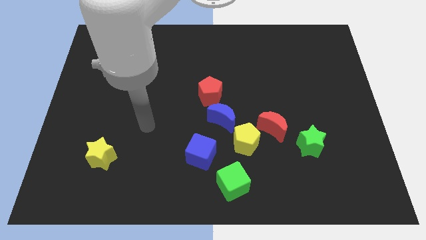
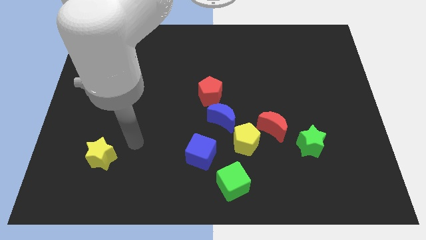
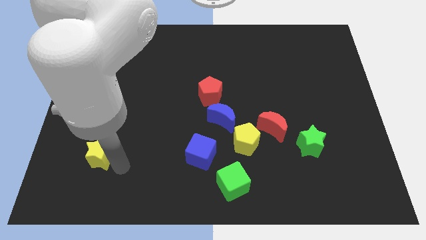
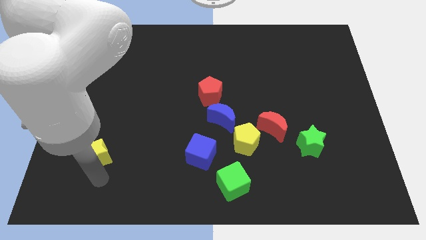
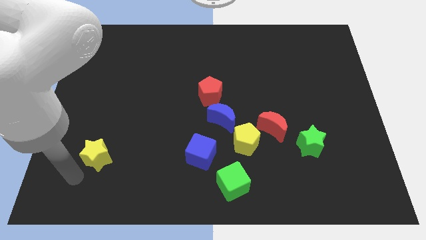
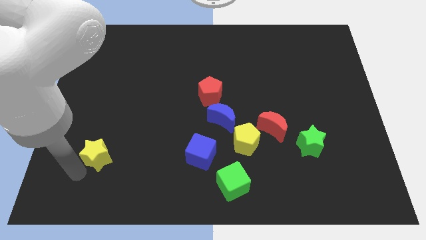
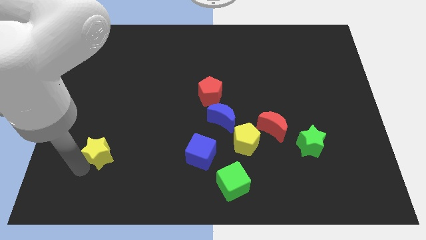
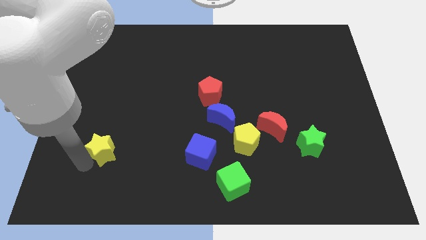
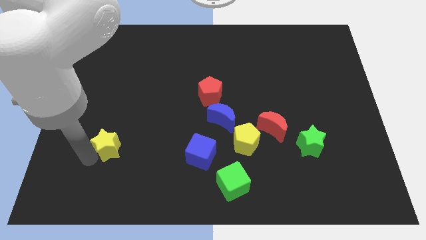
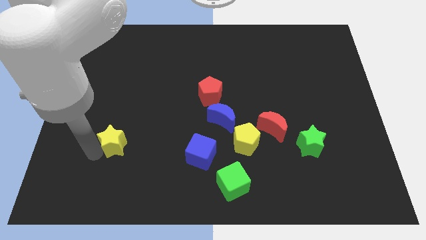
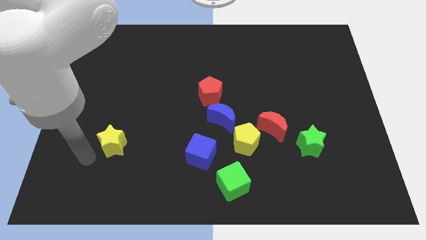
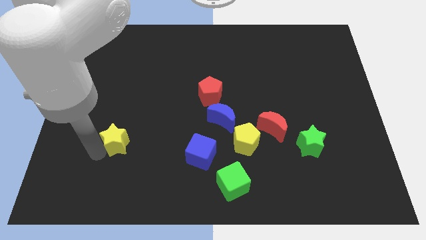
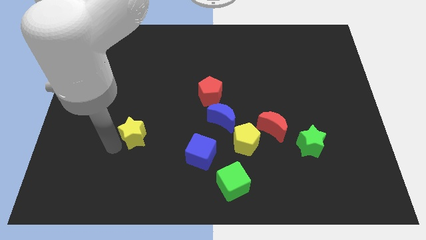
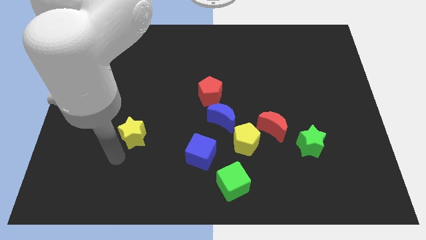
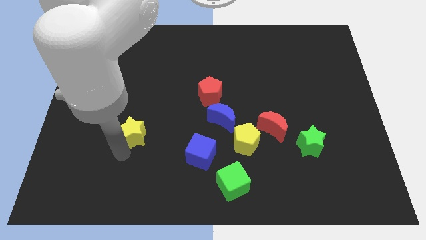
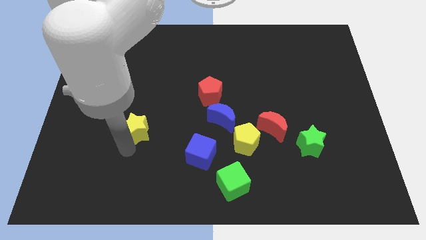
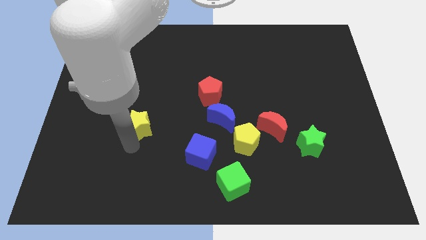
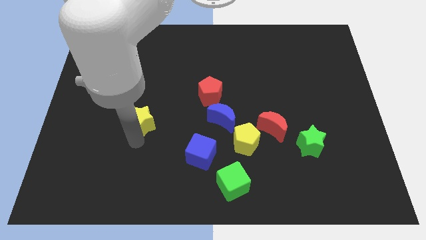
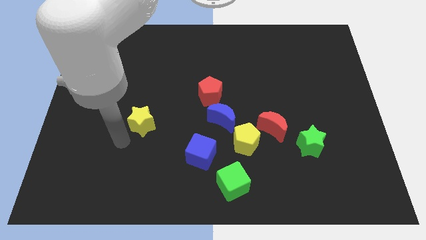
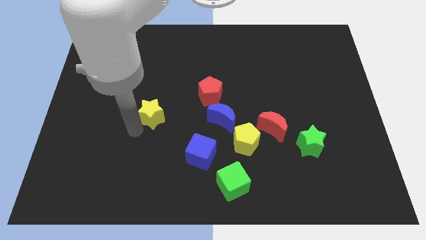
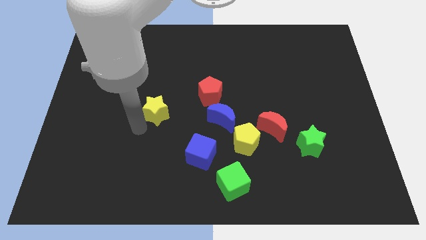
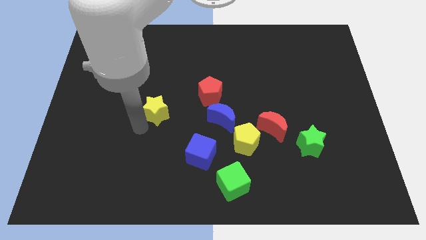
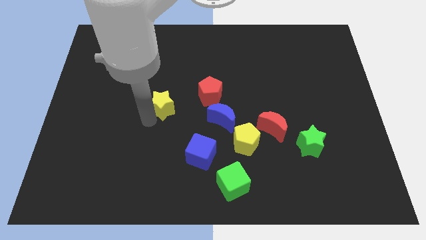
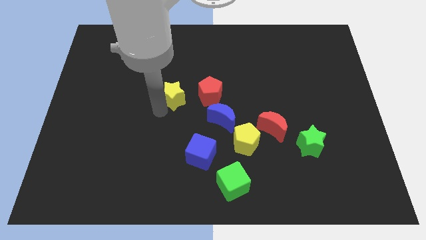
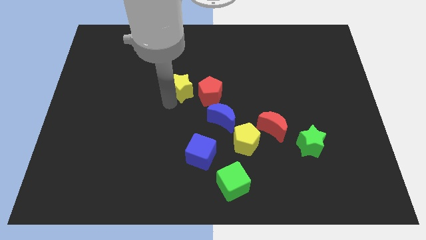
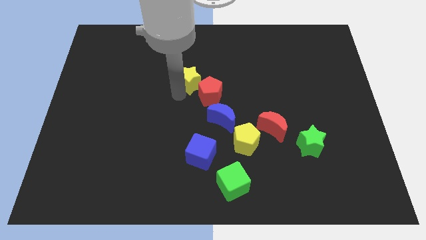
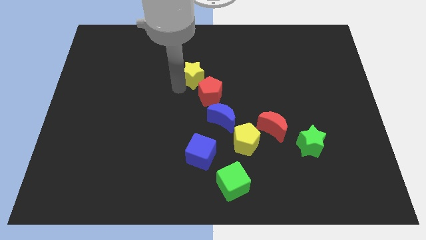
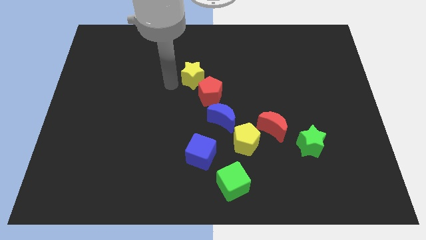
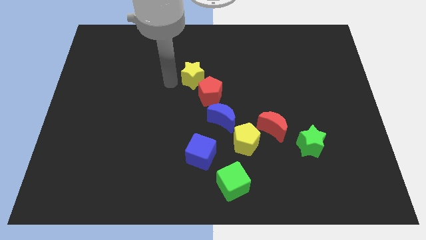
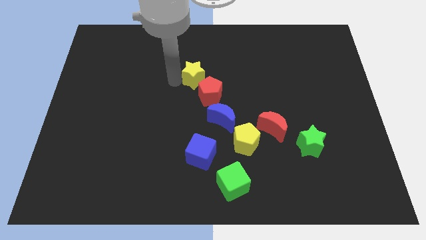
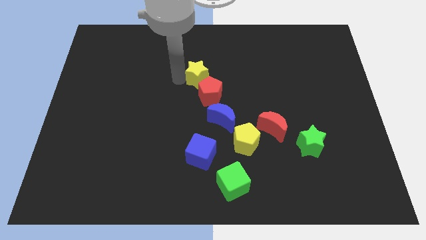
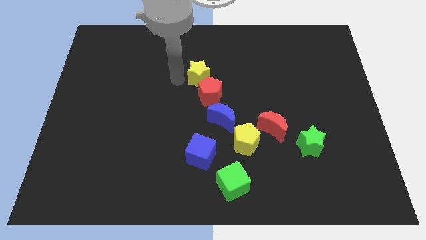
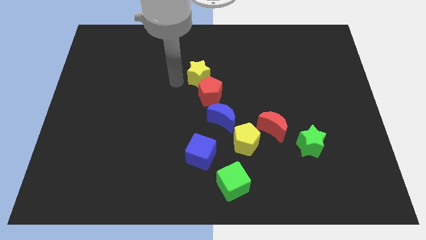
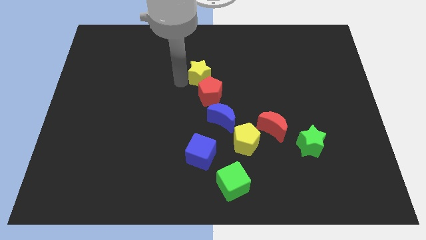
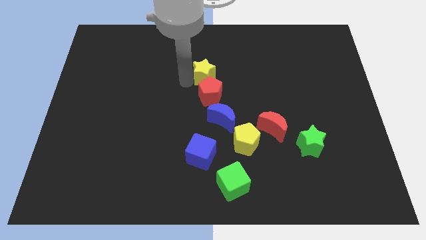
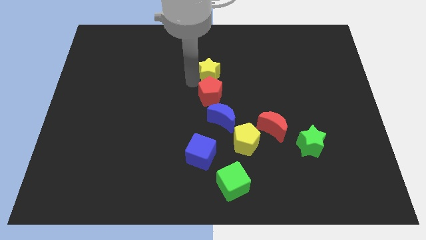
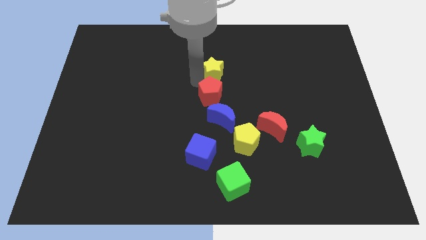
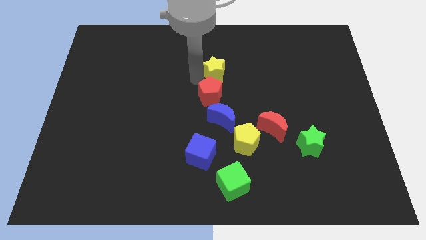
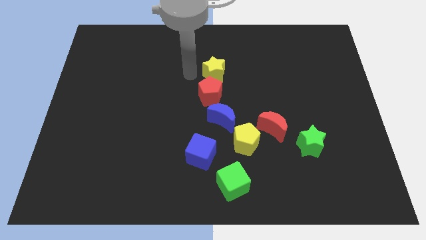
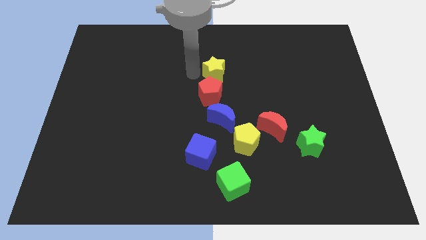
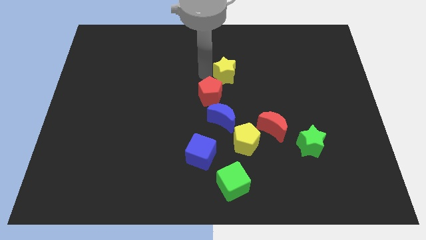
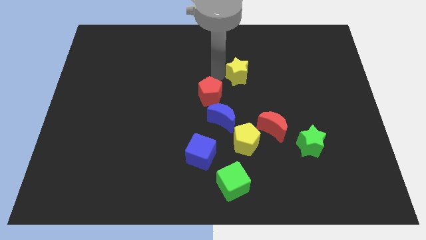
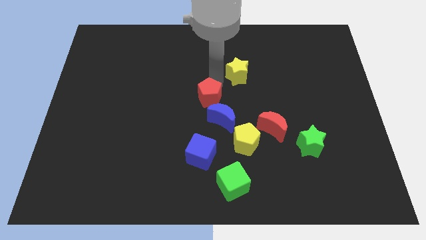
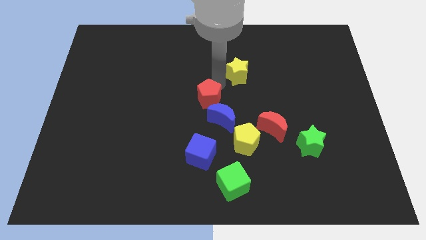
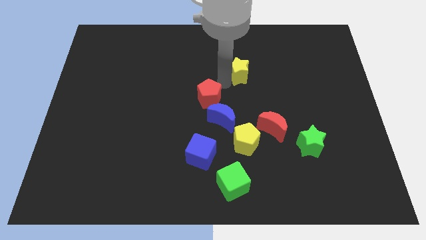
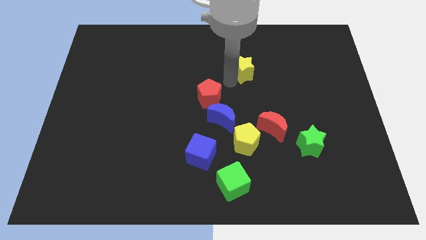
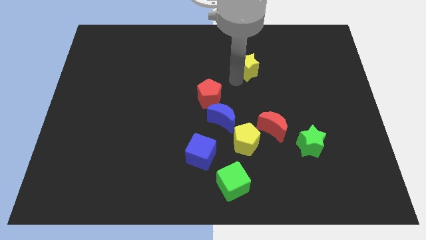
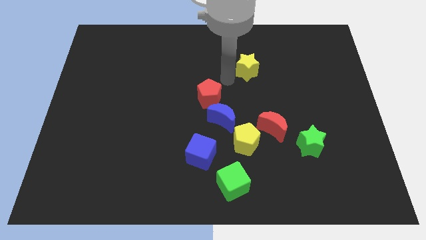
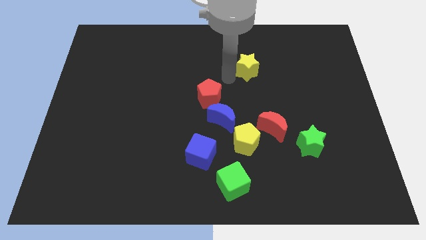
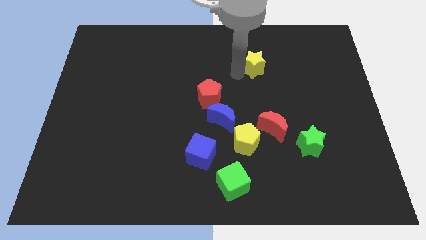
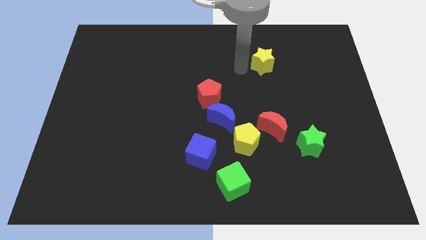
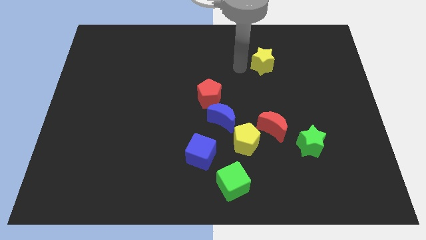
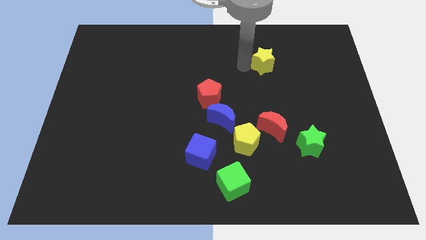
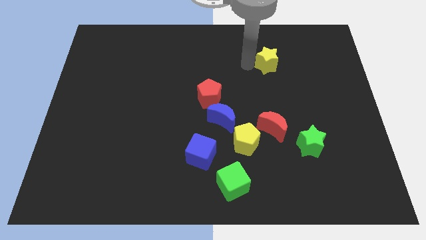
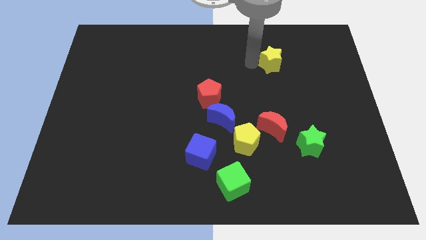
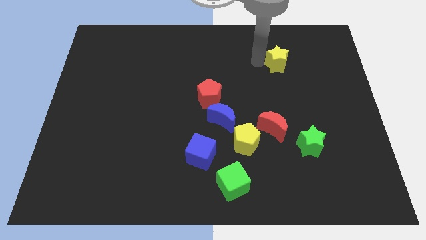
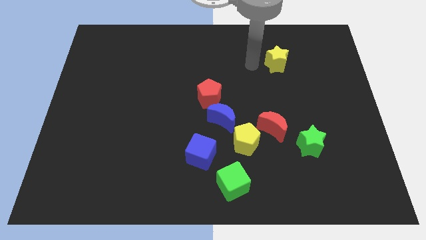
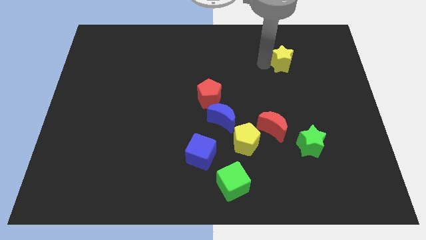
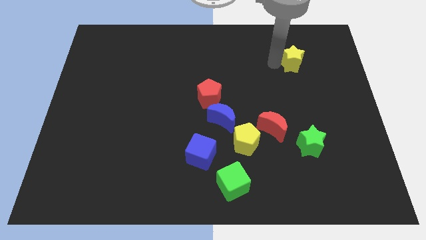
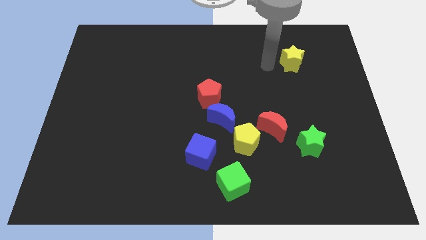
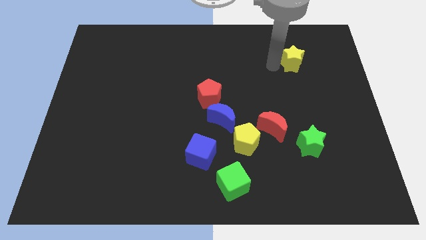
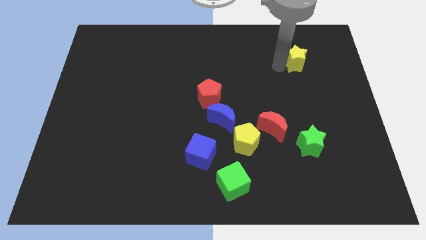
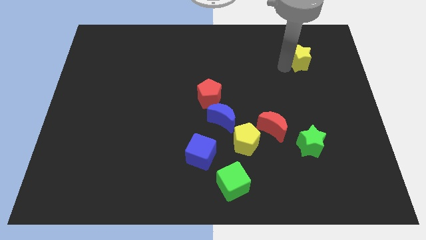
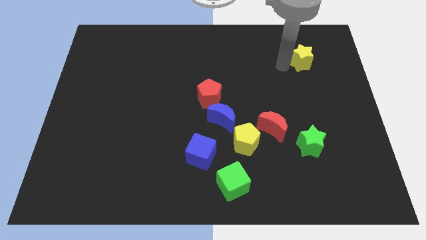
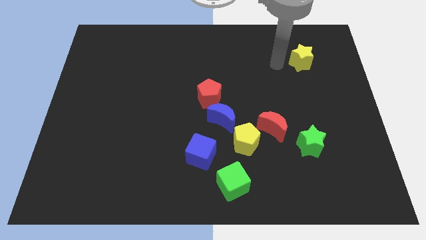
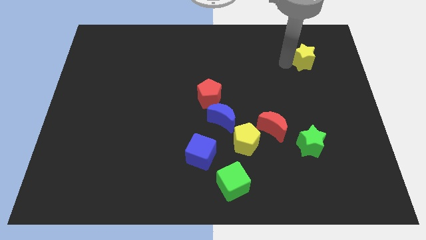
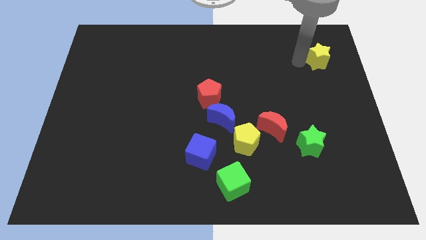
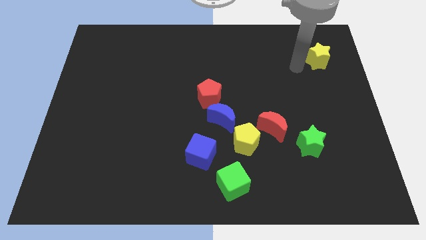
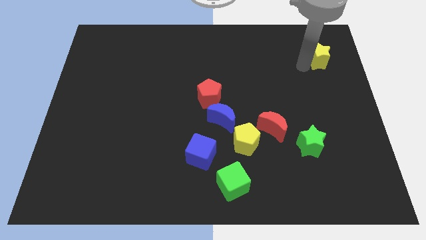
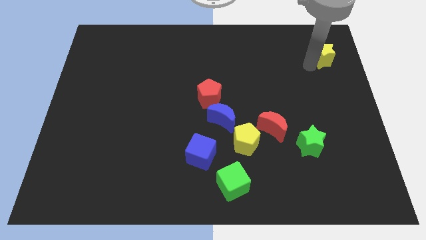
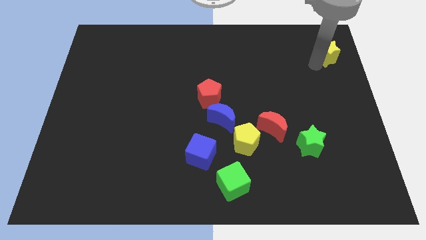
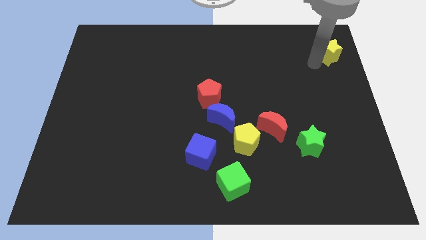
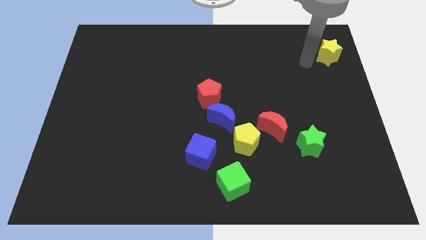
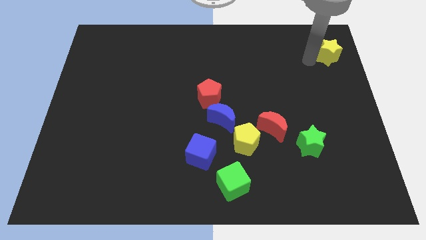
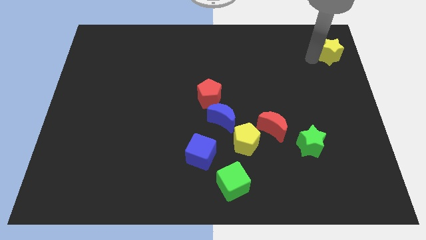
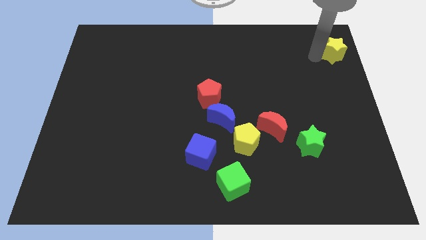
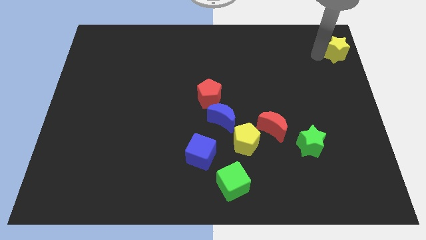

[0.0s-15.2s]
put the yellow star to the top right

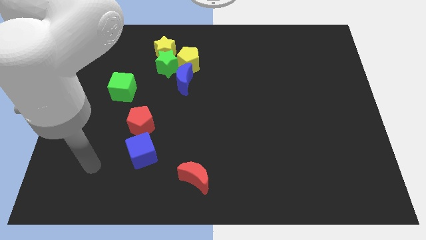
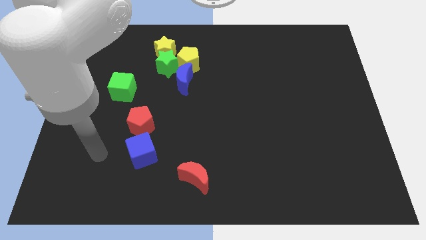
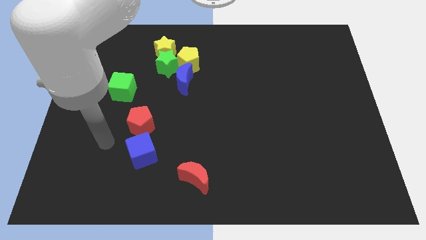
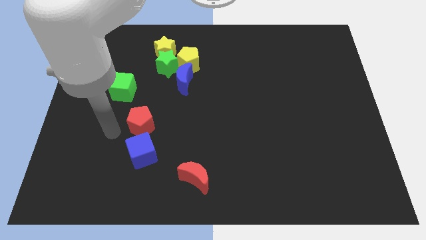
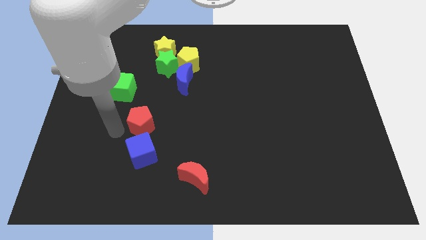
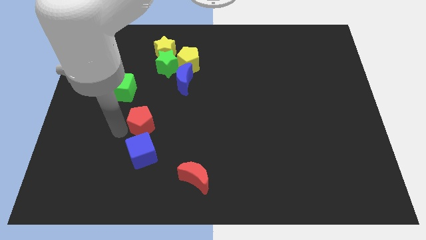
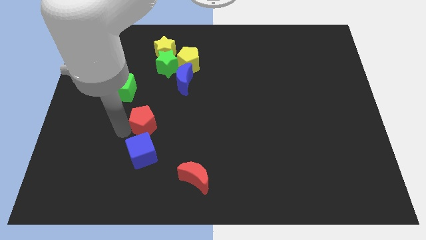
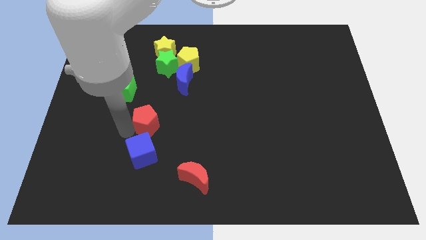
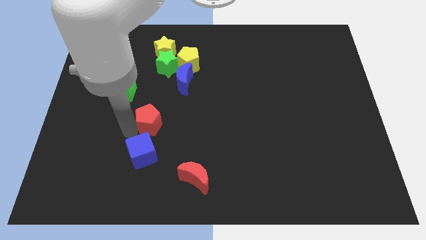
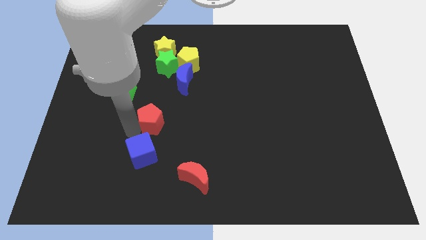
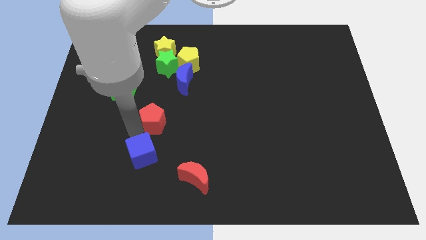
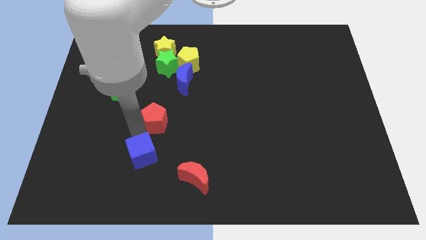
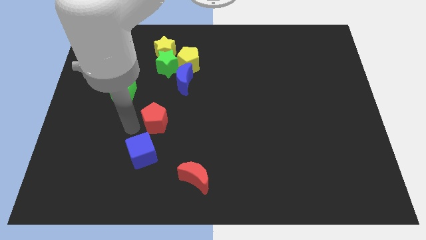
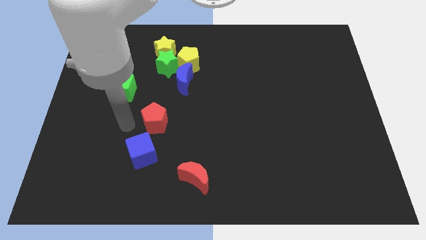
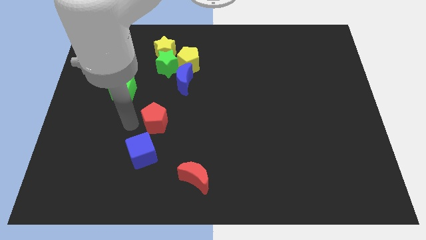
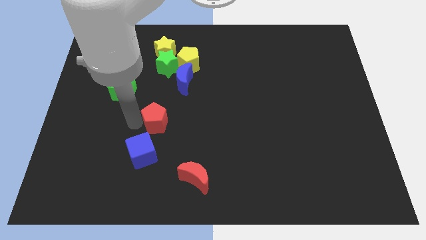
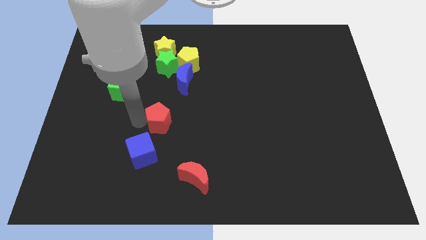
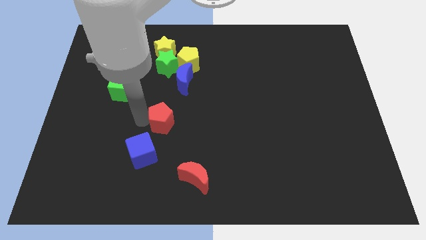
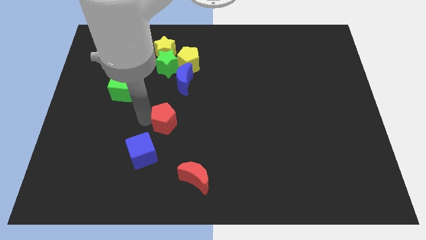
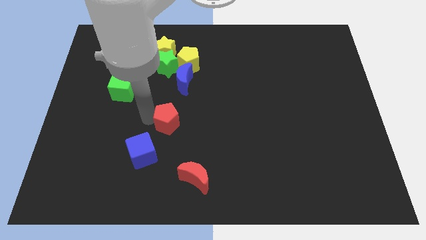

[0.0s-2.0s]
put the red pentagon to the center
